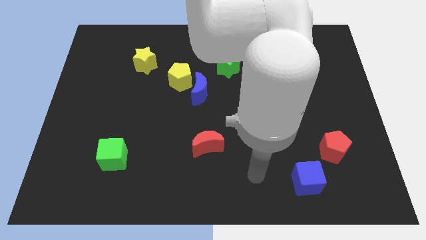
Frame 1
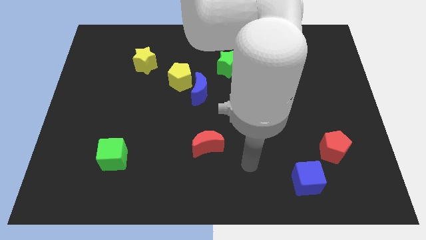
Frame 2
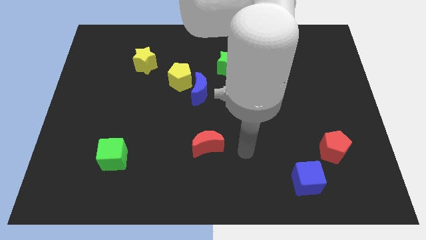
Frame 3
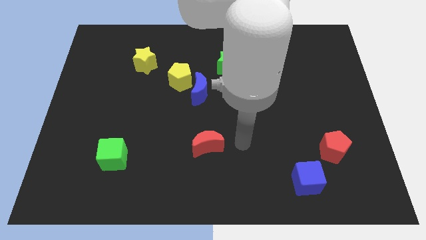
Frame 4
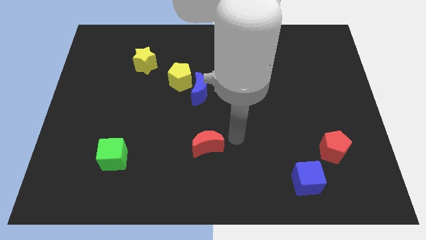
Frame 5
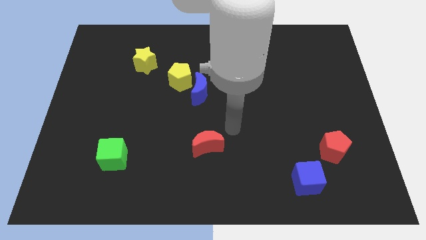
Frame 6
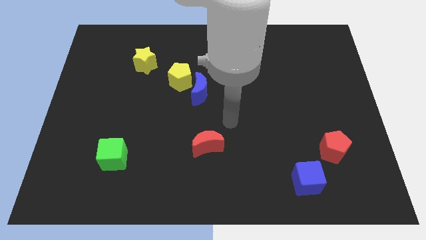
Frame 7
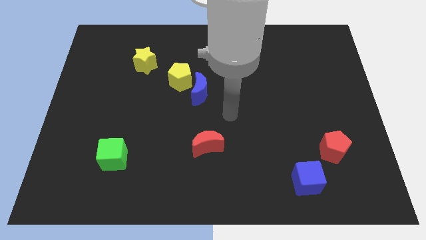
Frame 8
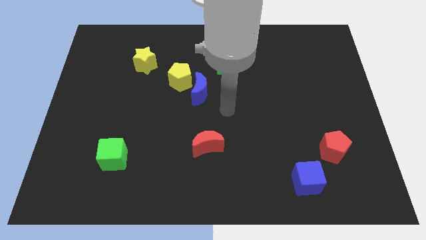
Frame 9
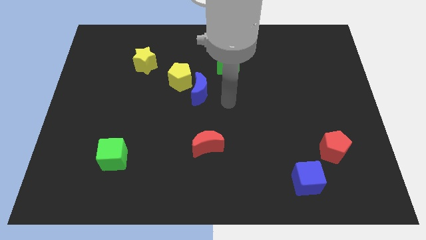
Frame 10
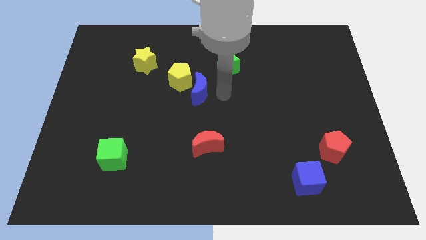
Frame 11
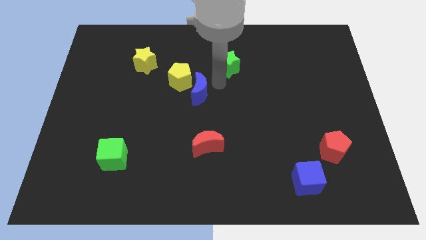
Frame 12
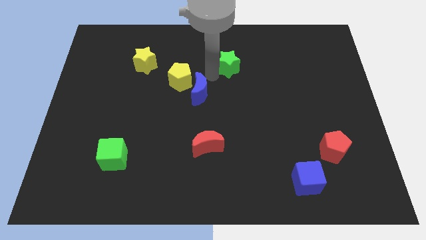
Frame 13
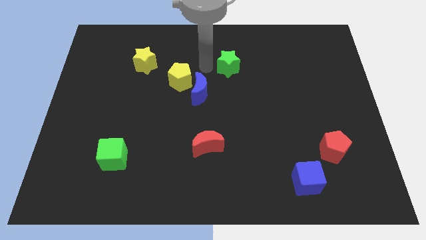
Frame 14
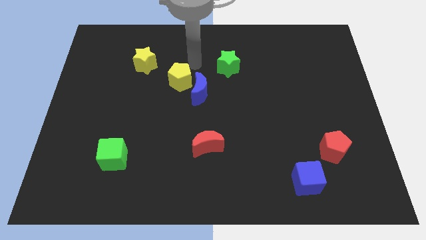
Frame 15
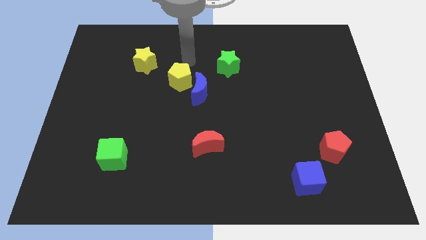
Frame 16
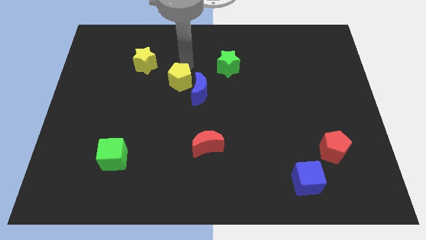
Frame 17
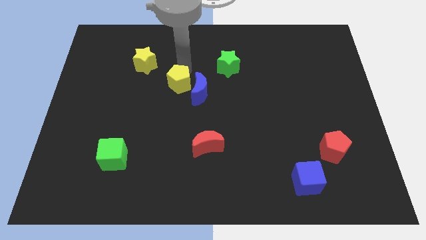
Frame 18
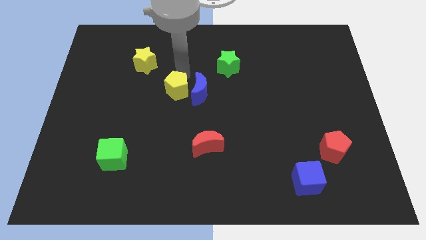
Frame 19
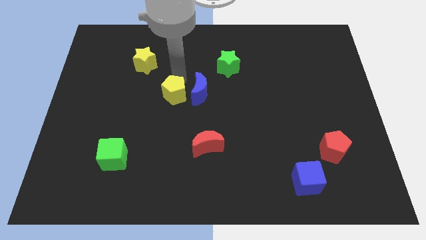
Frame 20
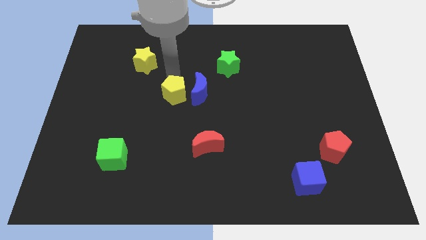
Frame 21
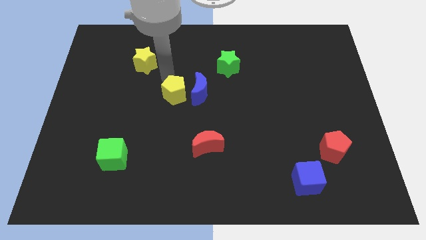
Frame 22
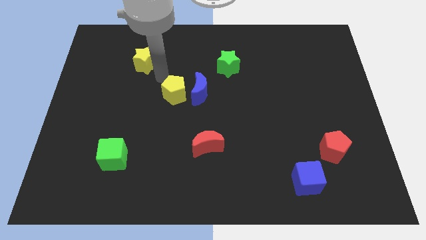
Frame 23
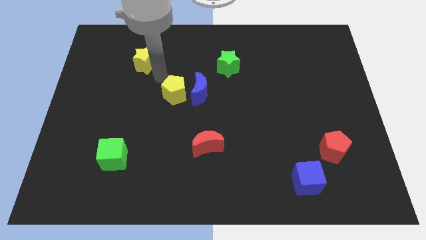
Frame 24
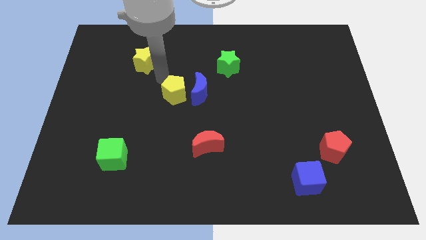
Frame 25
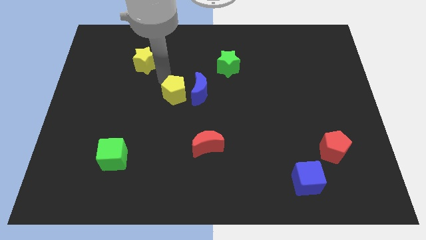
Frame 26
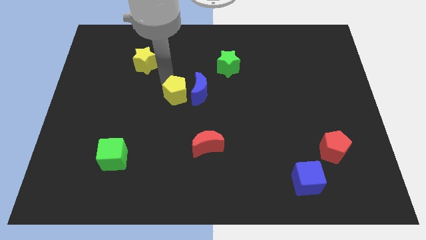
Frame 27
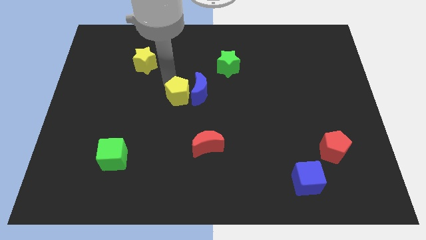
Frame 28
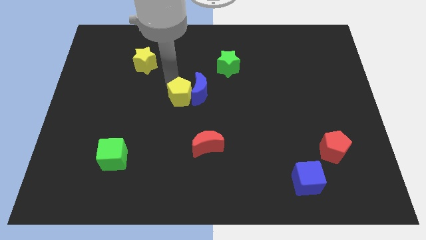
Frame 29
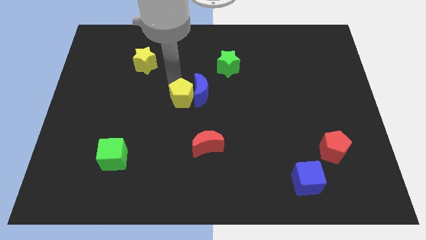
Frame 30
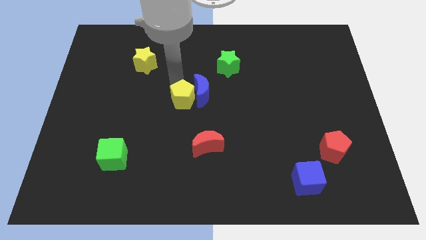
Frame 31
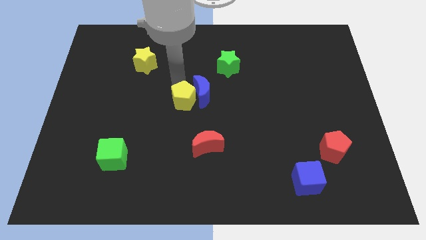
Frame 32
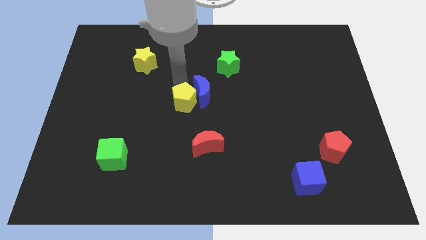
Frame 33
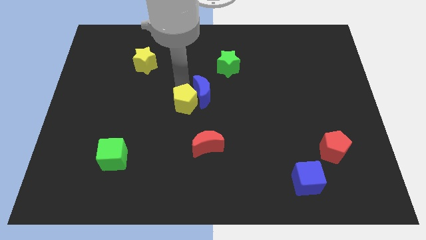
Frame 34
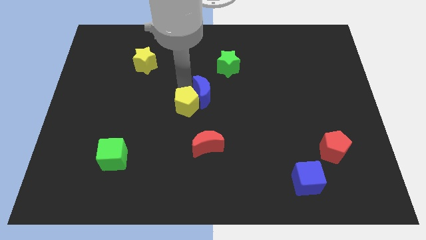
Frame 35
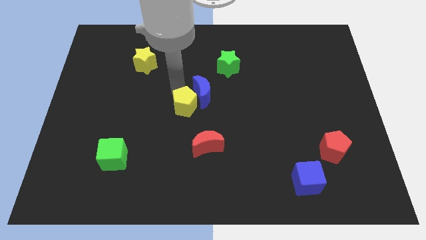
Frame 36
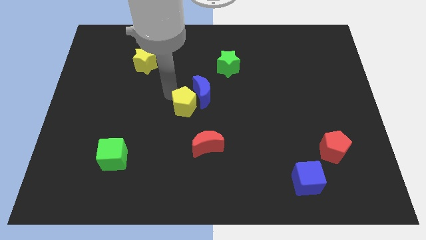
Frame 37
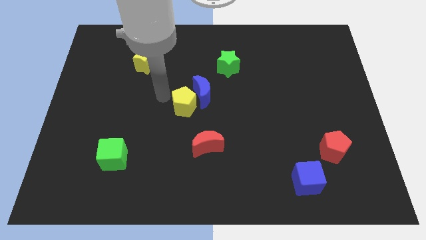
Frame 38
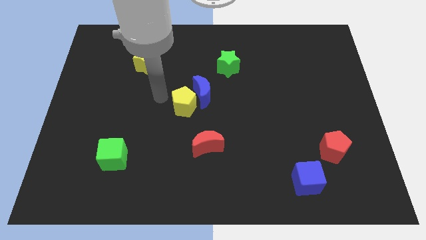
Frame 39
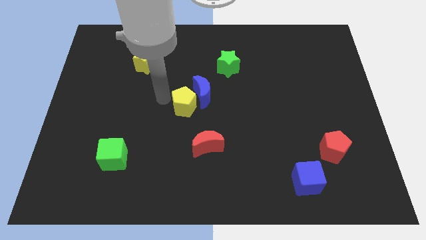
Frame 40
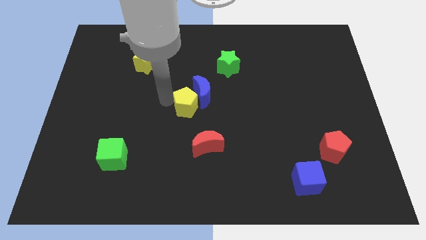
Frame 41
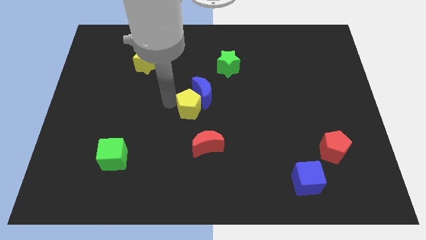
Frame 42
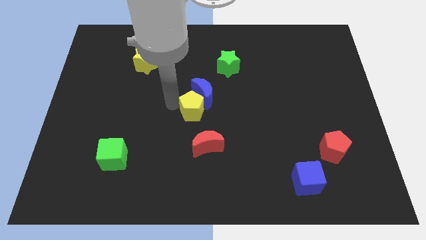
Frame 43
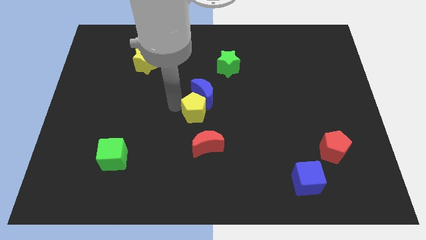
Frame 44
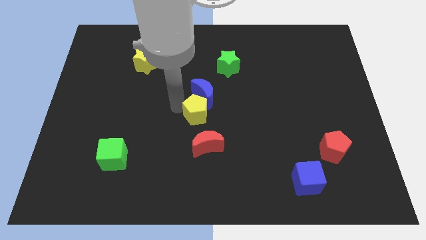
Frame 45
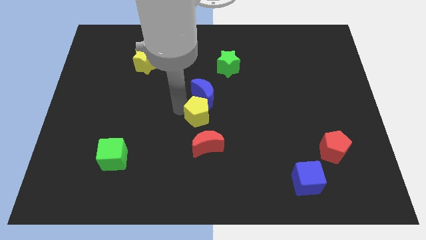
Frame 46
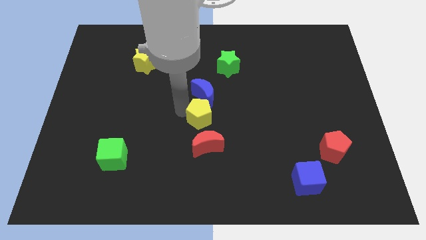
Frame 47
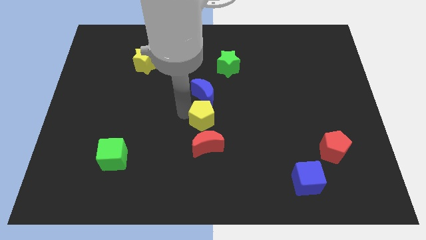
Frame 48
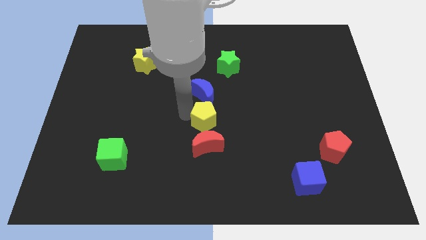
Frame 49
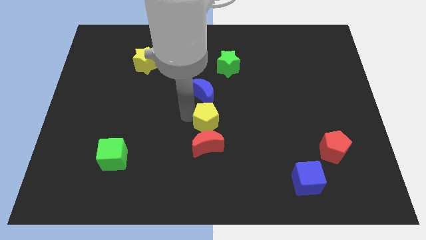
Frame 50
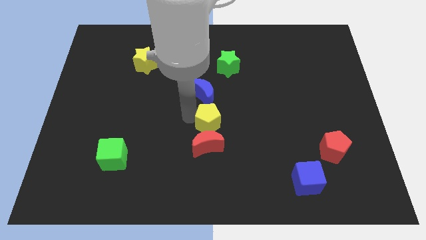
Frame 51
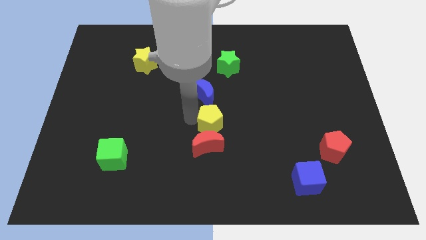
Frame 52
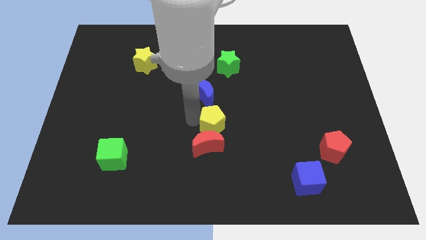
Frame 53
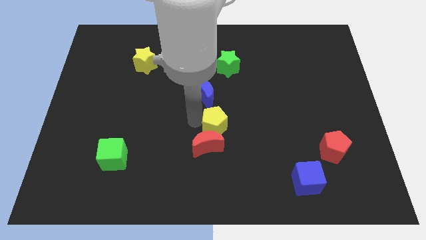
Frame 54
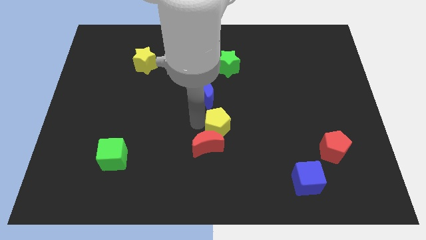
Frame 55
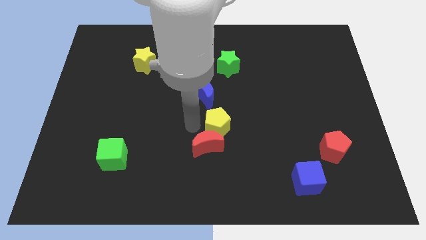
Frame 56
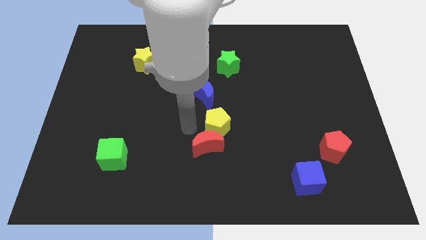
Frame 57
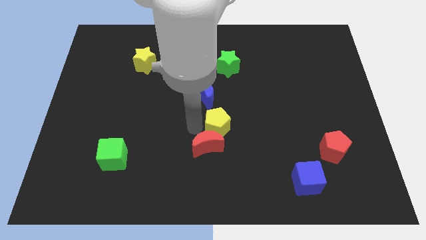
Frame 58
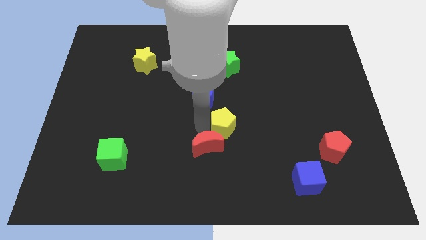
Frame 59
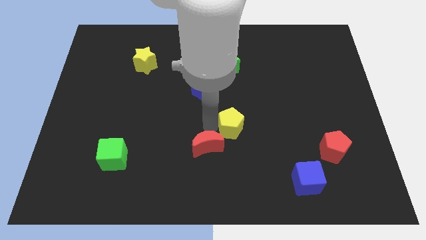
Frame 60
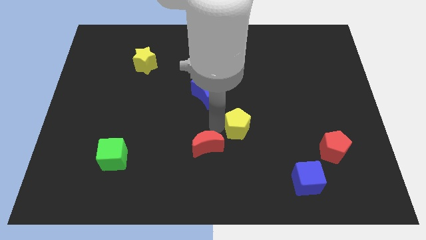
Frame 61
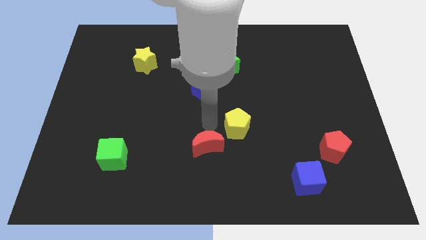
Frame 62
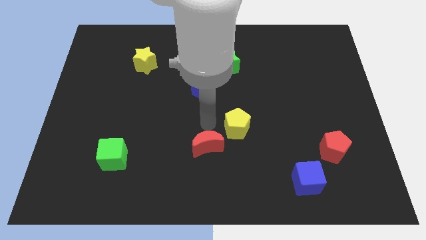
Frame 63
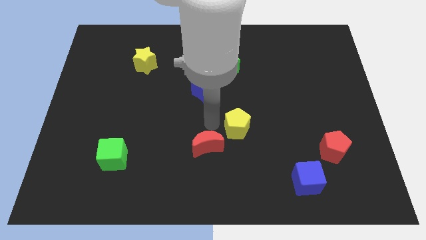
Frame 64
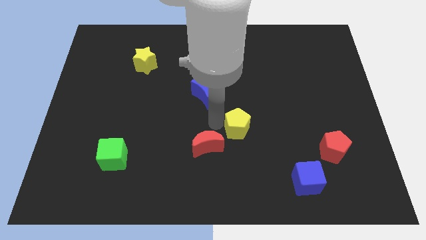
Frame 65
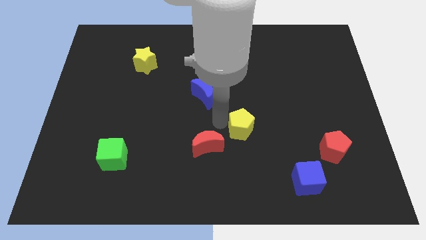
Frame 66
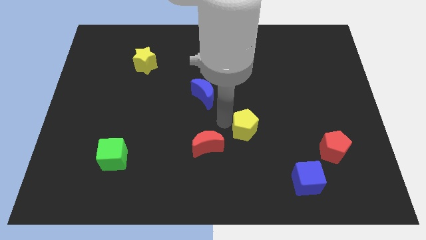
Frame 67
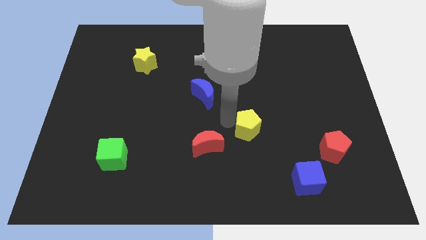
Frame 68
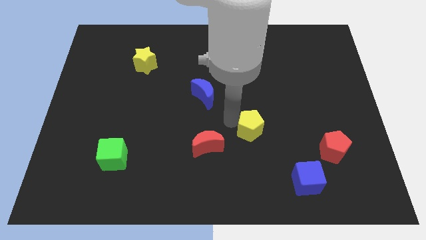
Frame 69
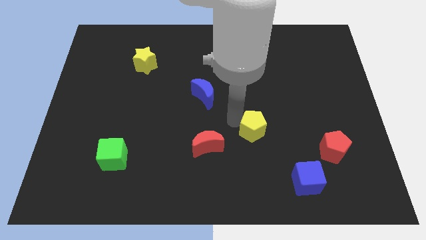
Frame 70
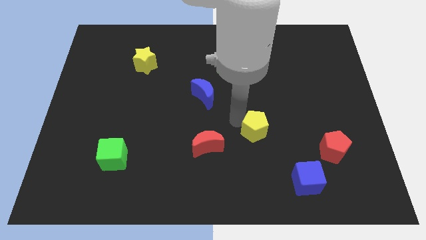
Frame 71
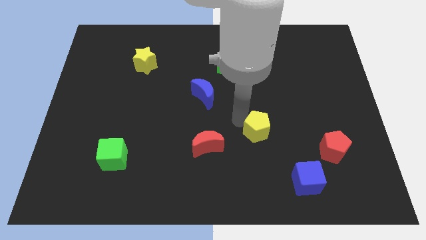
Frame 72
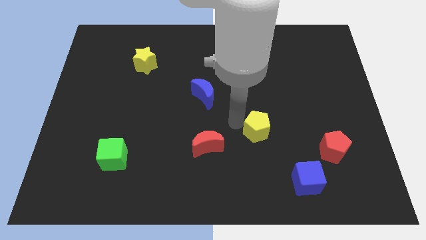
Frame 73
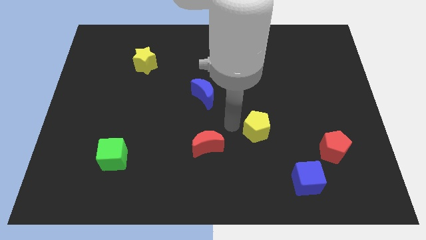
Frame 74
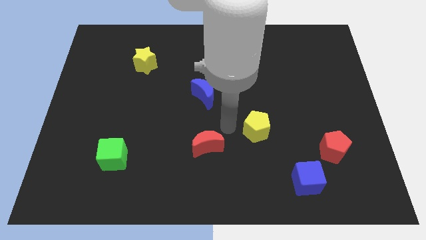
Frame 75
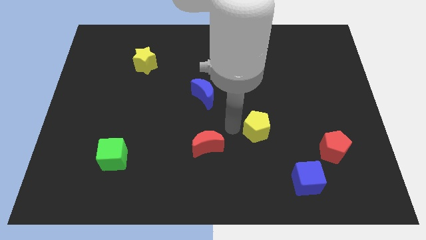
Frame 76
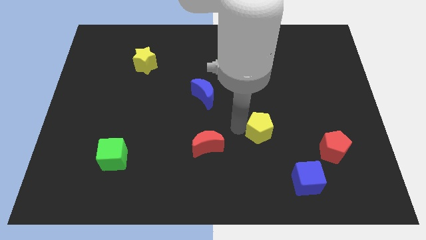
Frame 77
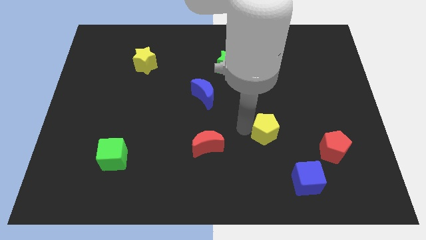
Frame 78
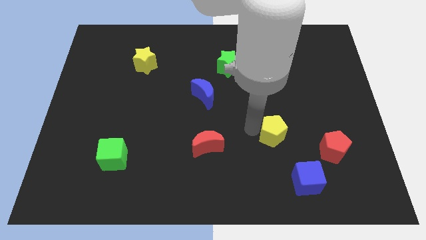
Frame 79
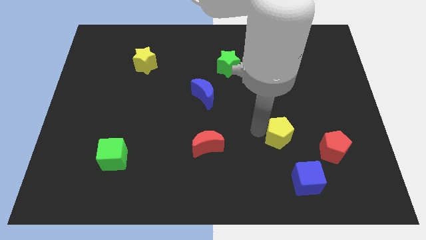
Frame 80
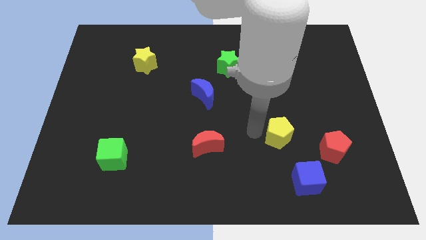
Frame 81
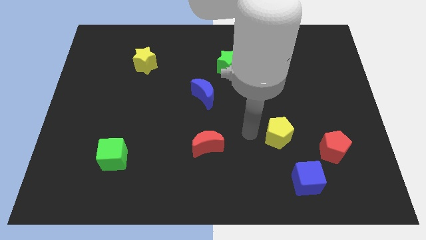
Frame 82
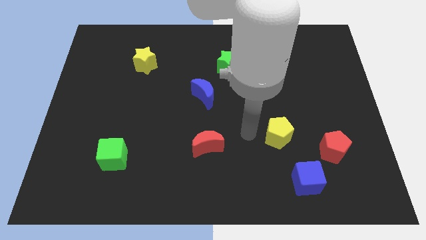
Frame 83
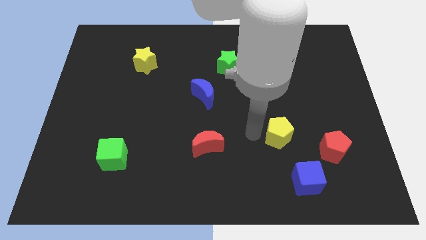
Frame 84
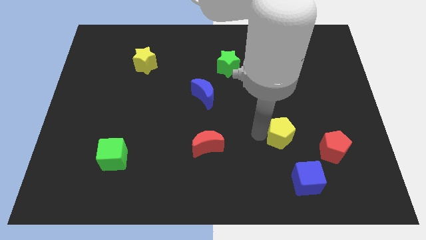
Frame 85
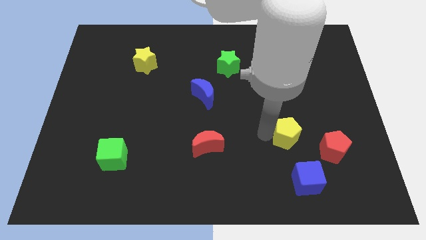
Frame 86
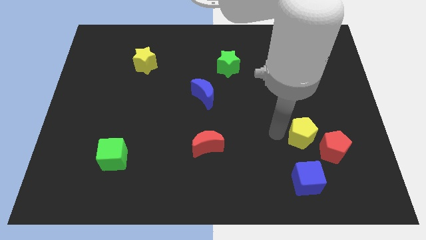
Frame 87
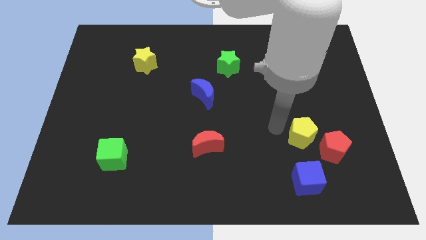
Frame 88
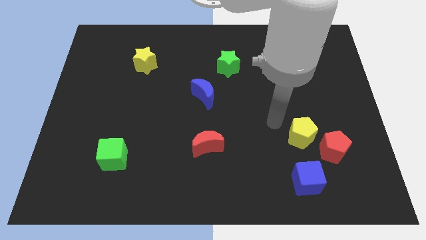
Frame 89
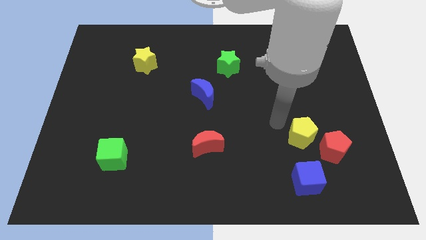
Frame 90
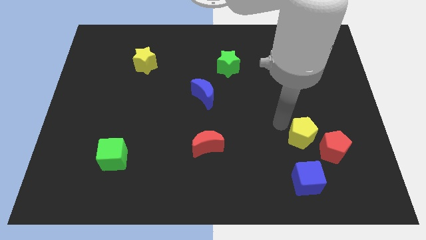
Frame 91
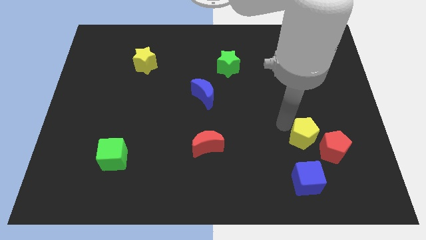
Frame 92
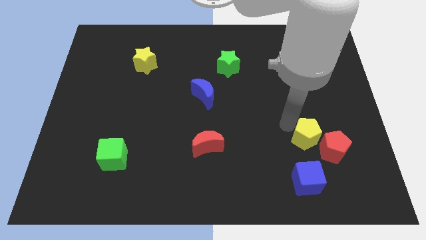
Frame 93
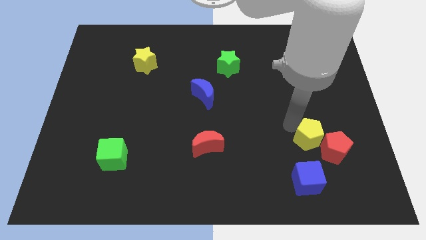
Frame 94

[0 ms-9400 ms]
move the yellow pentagon to the red pentagon
